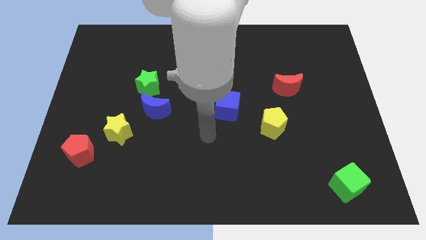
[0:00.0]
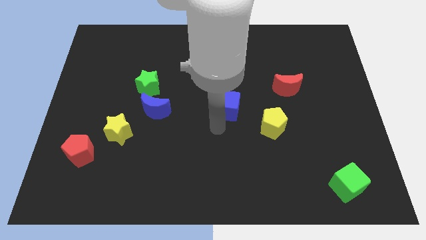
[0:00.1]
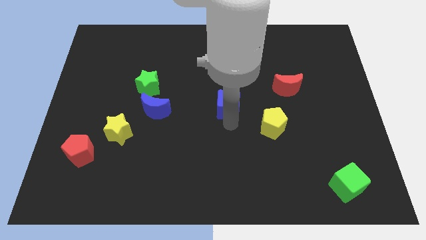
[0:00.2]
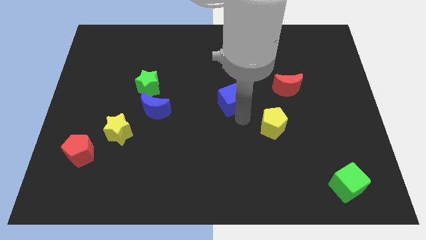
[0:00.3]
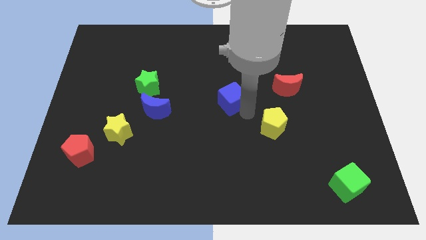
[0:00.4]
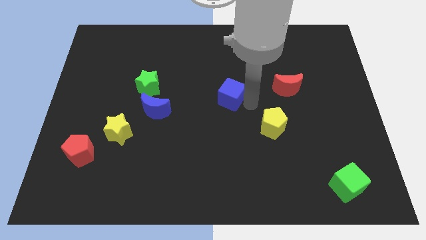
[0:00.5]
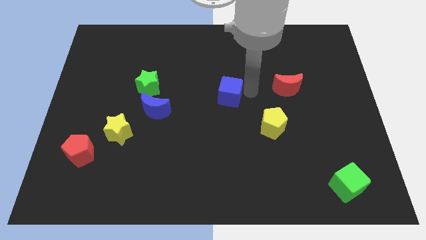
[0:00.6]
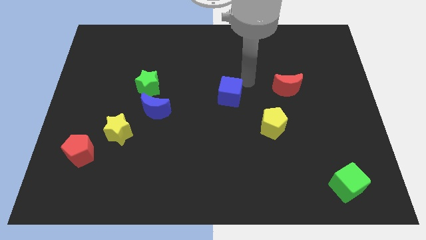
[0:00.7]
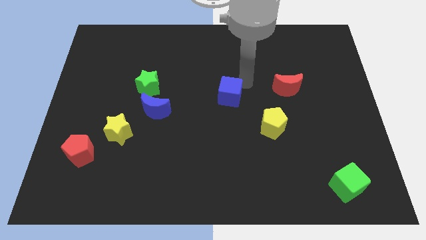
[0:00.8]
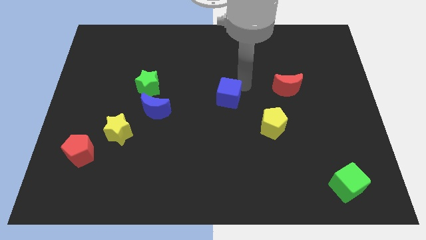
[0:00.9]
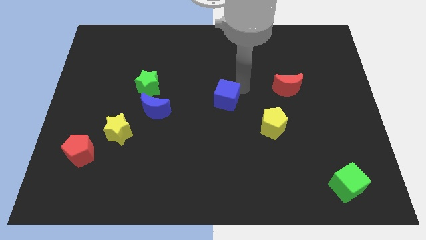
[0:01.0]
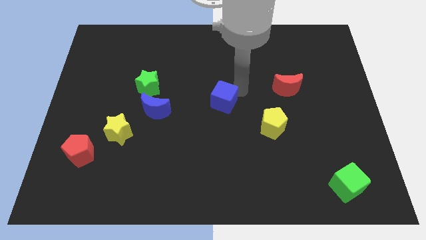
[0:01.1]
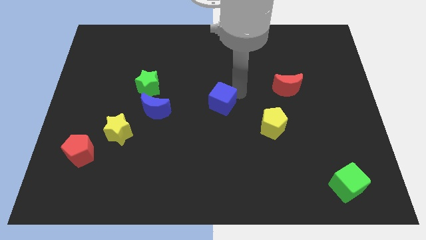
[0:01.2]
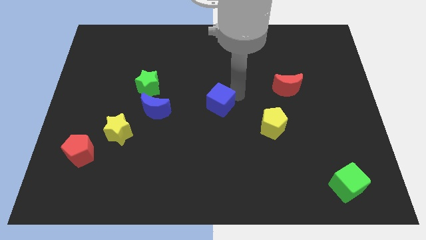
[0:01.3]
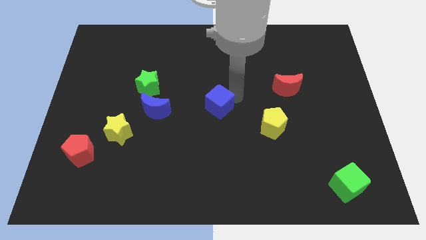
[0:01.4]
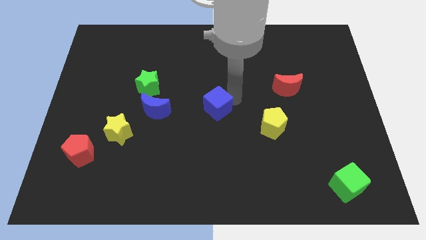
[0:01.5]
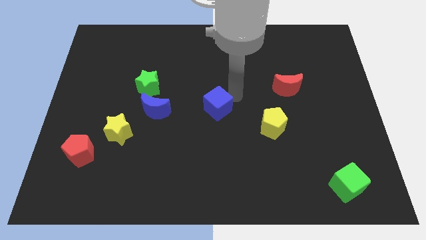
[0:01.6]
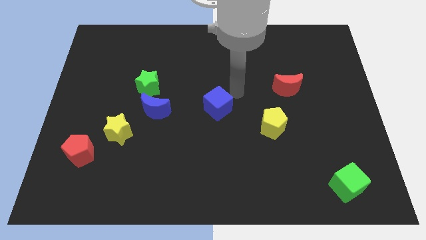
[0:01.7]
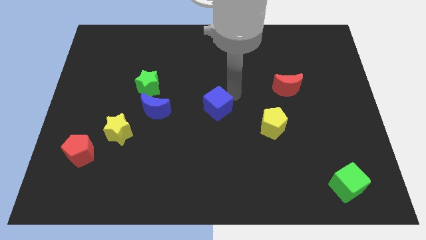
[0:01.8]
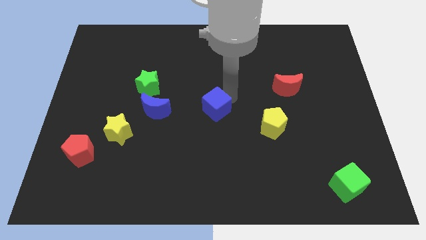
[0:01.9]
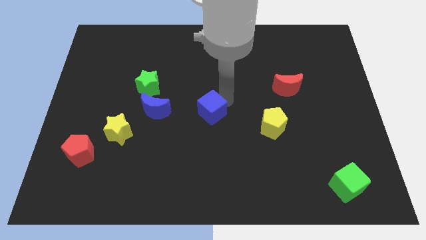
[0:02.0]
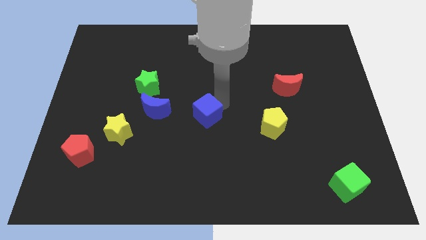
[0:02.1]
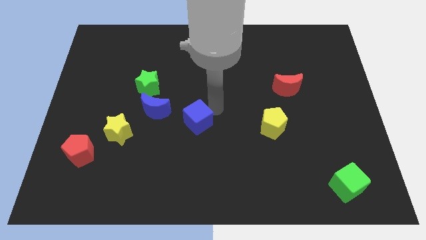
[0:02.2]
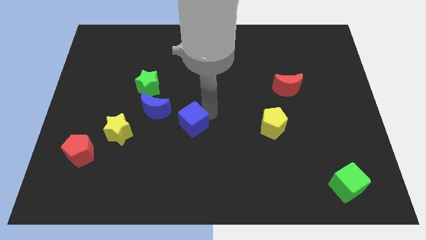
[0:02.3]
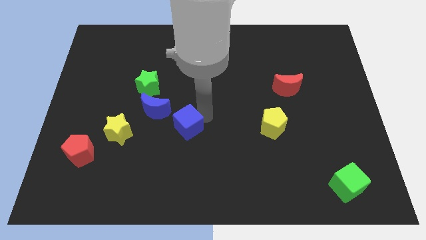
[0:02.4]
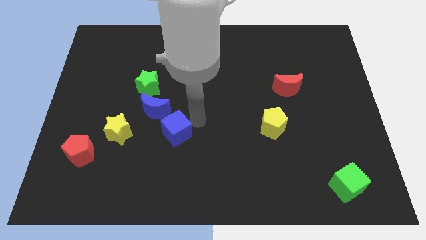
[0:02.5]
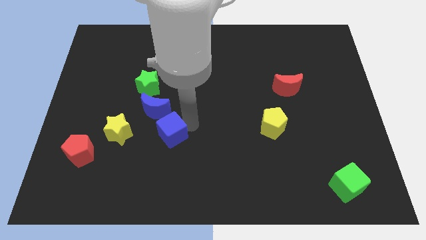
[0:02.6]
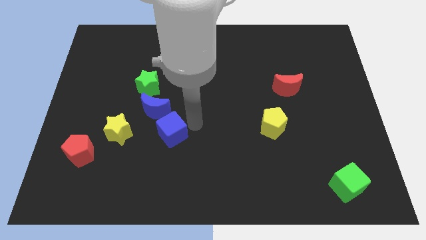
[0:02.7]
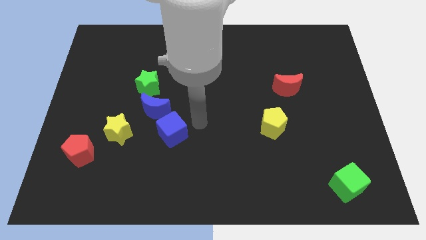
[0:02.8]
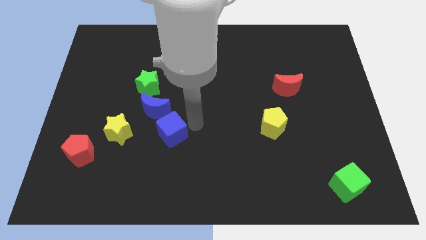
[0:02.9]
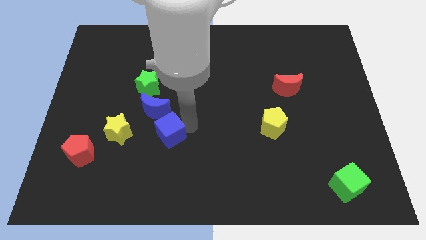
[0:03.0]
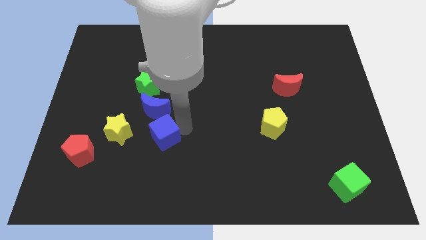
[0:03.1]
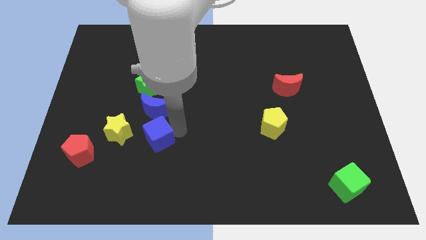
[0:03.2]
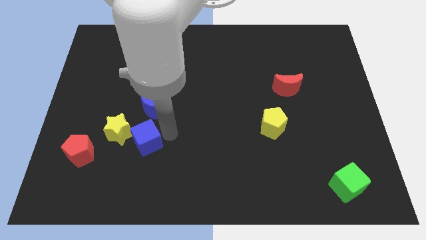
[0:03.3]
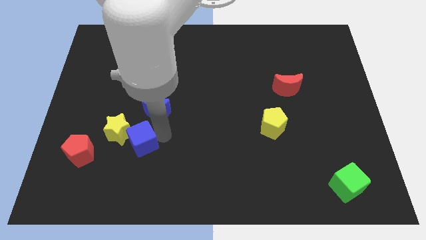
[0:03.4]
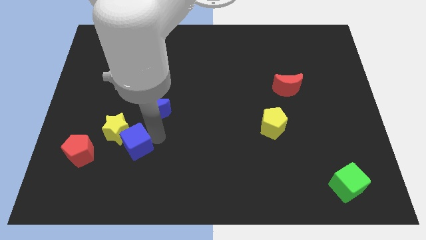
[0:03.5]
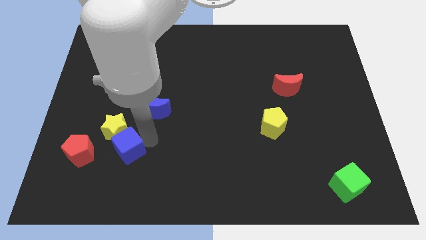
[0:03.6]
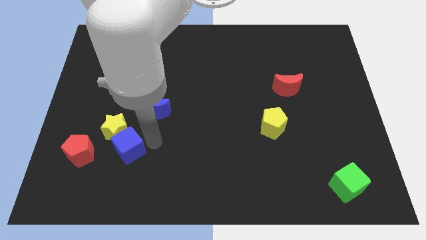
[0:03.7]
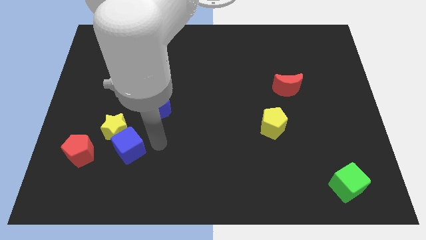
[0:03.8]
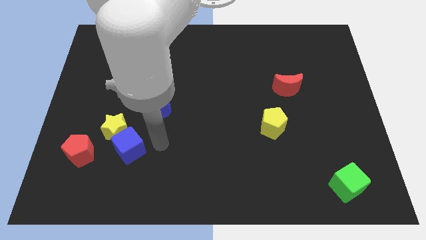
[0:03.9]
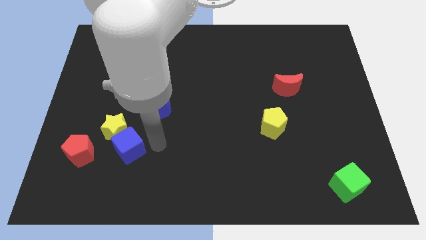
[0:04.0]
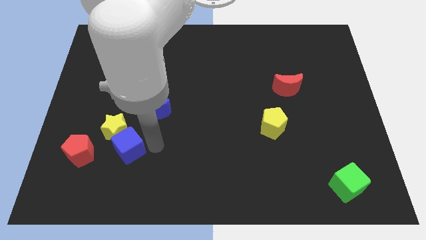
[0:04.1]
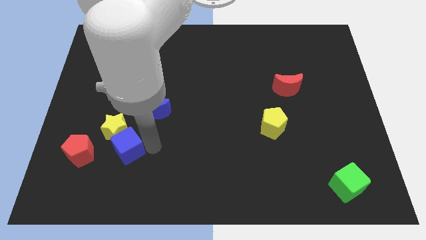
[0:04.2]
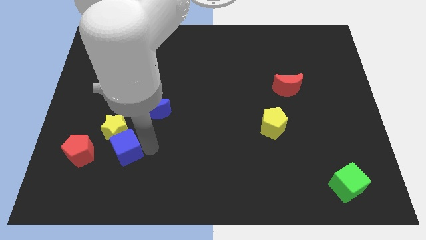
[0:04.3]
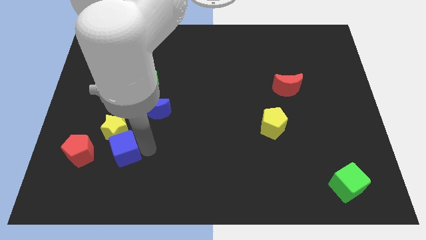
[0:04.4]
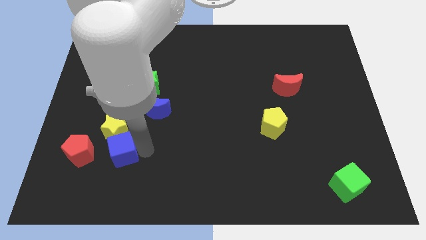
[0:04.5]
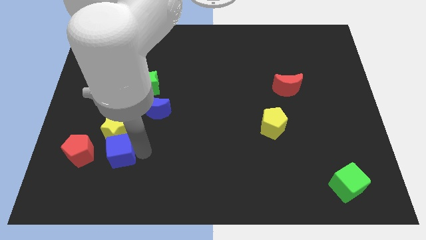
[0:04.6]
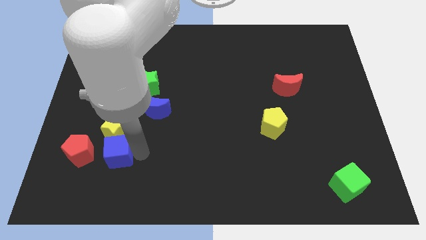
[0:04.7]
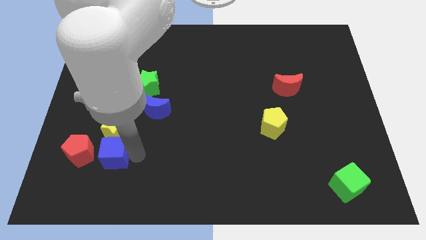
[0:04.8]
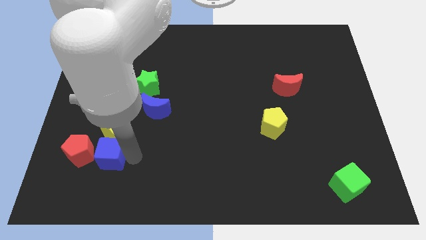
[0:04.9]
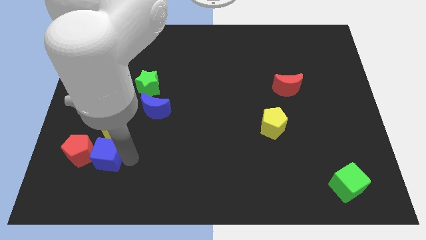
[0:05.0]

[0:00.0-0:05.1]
move the blue cube close to the red pentagon

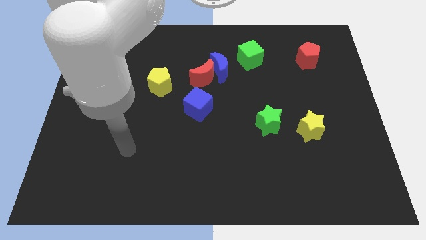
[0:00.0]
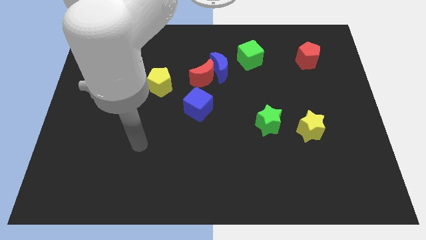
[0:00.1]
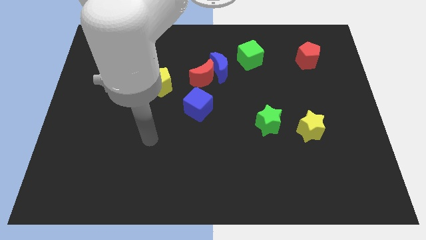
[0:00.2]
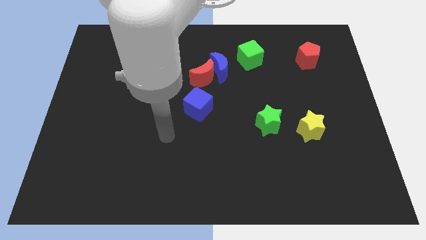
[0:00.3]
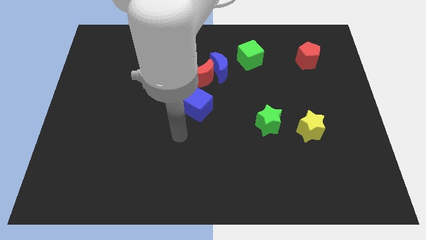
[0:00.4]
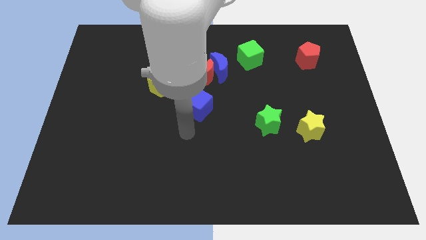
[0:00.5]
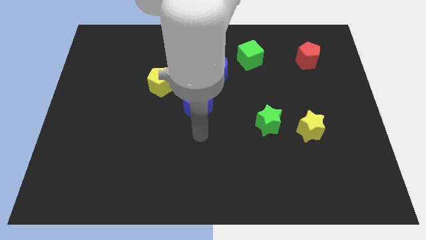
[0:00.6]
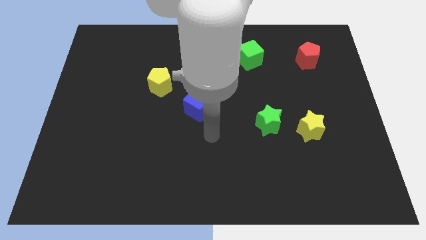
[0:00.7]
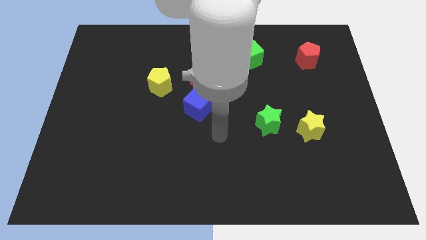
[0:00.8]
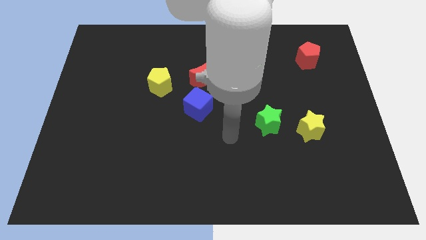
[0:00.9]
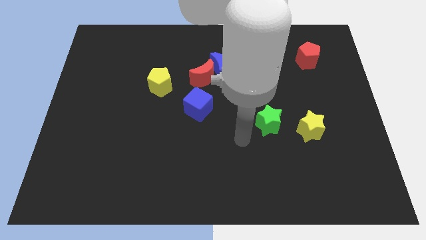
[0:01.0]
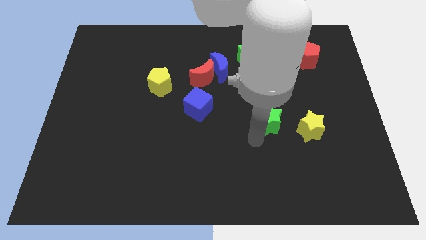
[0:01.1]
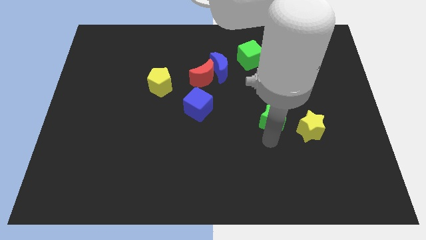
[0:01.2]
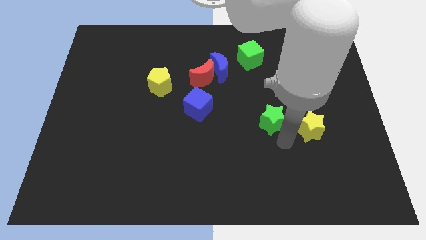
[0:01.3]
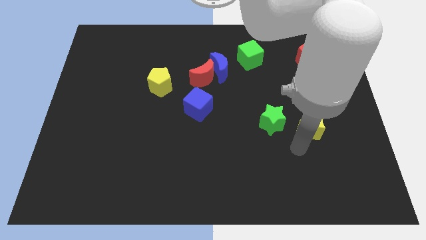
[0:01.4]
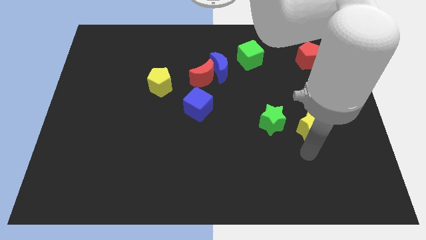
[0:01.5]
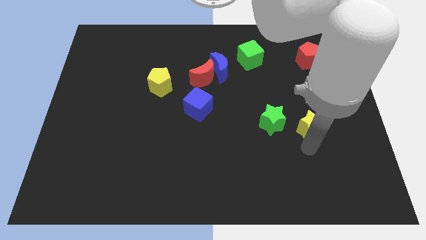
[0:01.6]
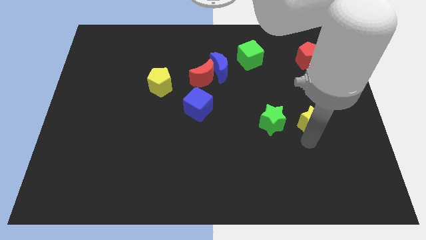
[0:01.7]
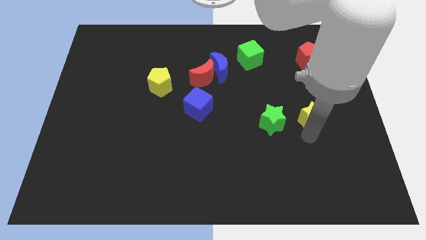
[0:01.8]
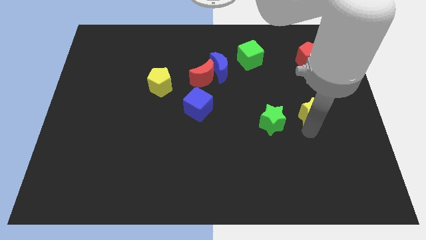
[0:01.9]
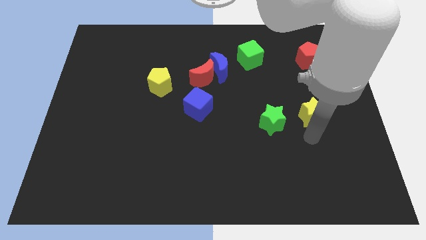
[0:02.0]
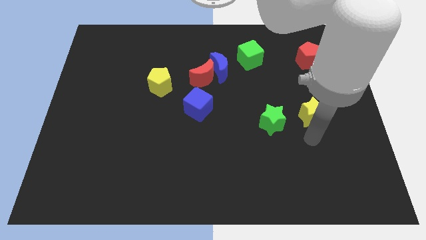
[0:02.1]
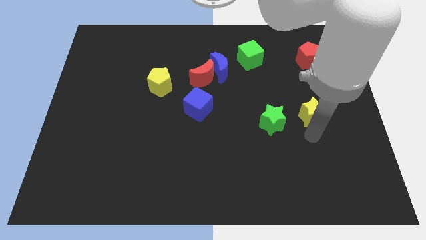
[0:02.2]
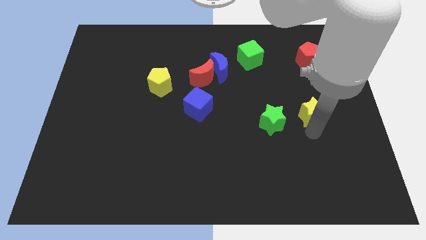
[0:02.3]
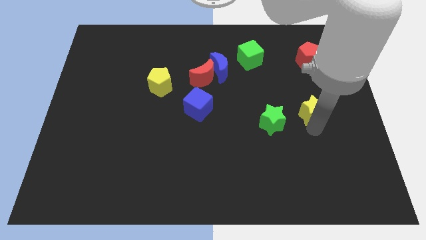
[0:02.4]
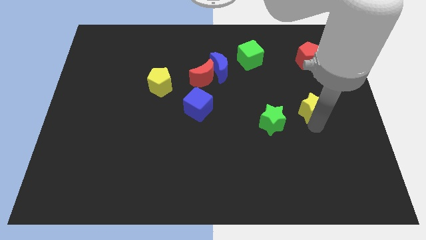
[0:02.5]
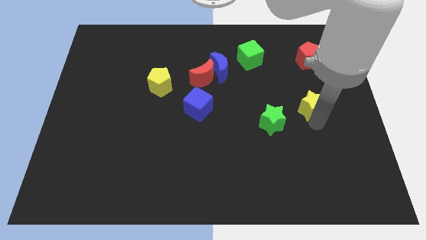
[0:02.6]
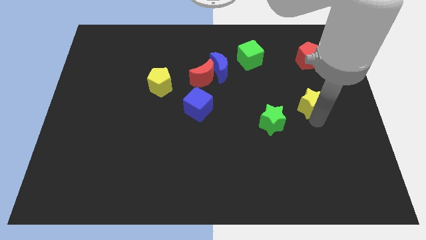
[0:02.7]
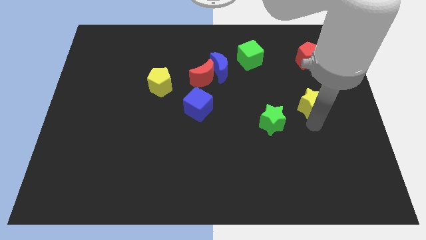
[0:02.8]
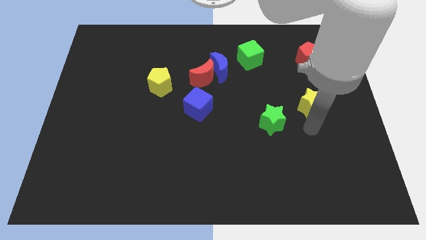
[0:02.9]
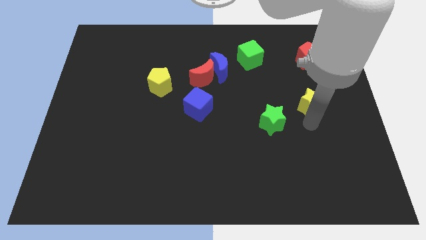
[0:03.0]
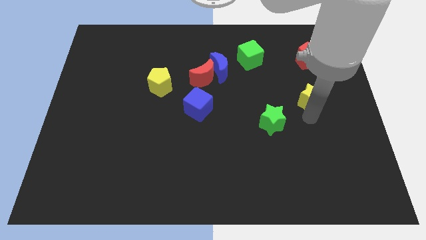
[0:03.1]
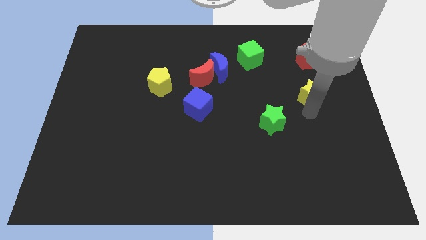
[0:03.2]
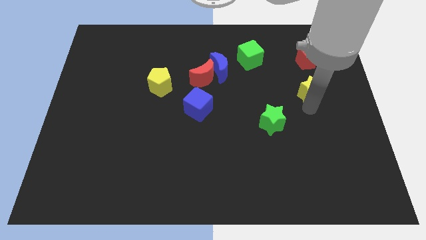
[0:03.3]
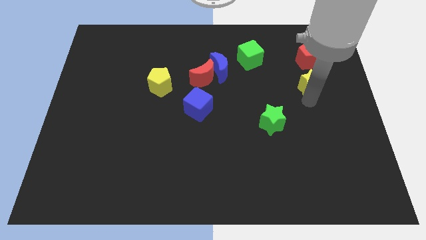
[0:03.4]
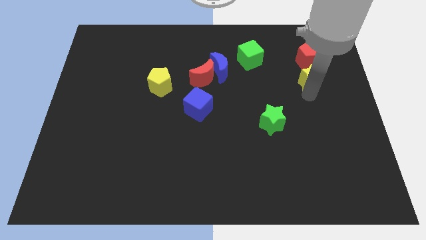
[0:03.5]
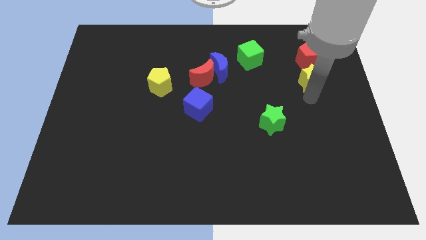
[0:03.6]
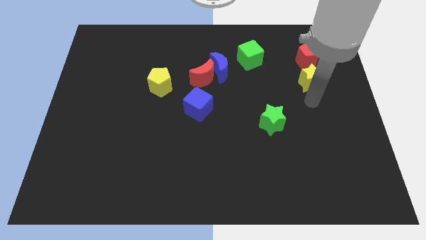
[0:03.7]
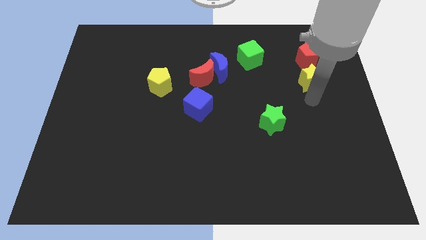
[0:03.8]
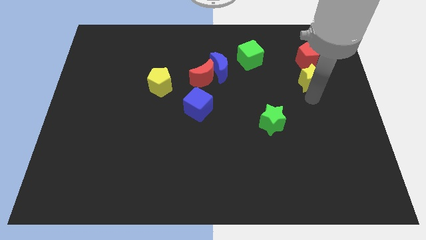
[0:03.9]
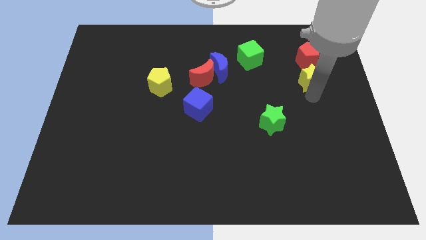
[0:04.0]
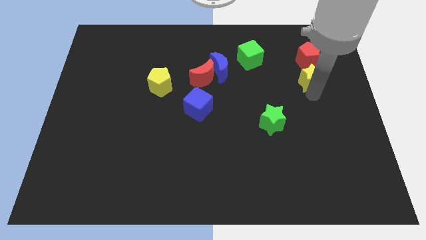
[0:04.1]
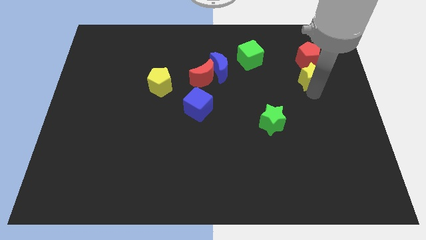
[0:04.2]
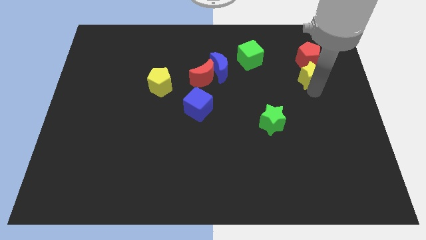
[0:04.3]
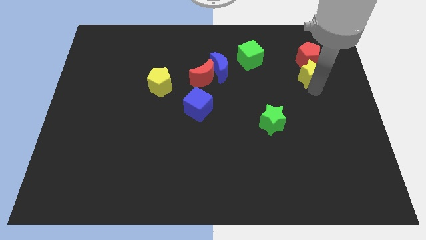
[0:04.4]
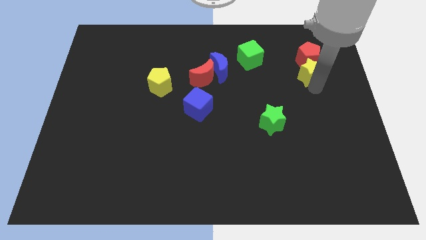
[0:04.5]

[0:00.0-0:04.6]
slide the yellow star next to the red pentagon
